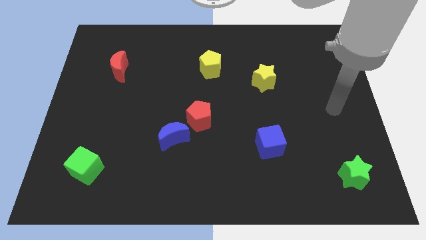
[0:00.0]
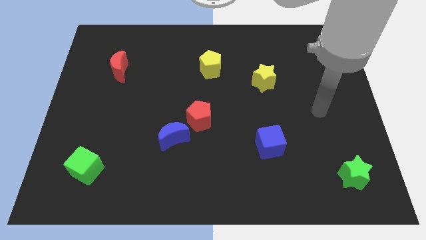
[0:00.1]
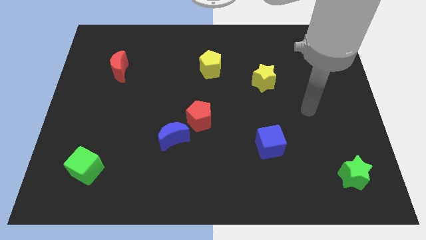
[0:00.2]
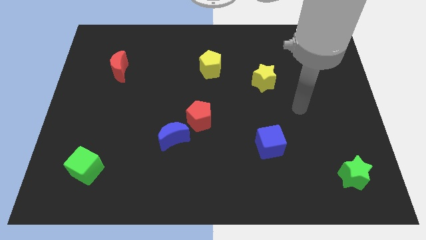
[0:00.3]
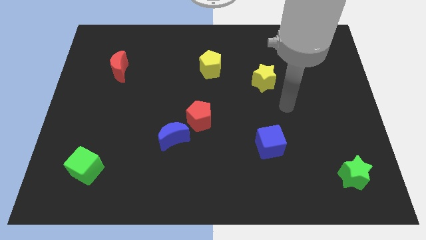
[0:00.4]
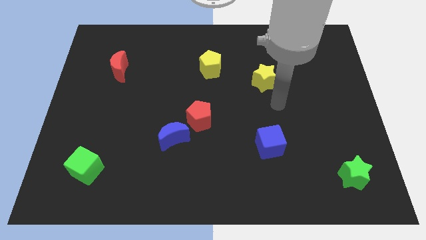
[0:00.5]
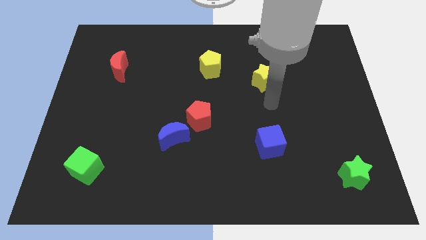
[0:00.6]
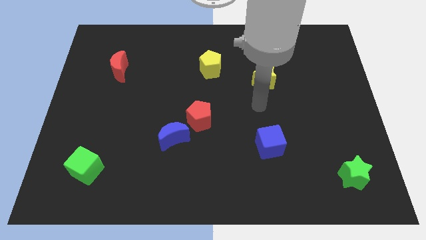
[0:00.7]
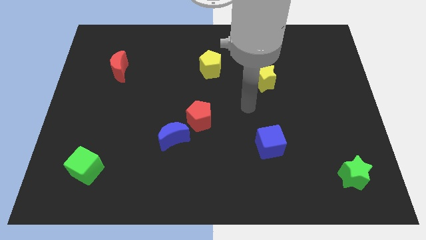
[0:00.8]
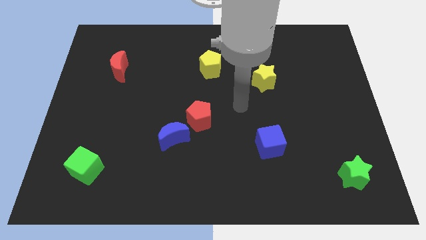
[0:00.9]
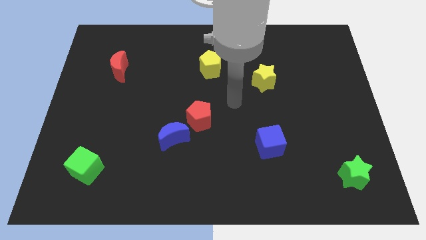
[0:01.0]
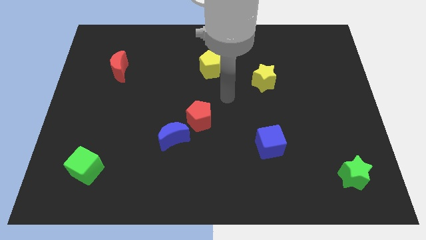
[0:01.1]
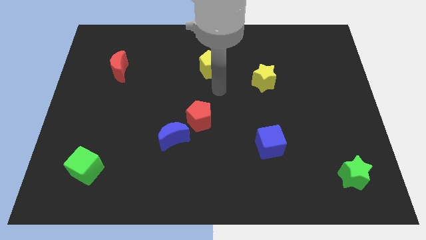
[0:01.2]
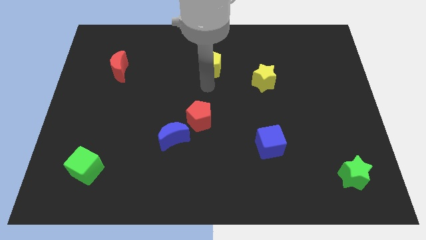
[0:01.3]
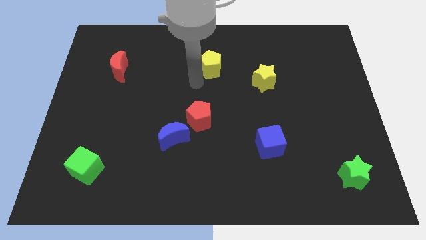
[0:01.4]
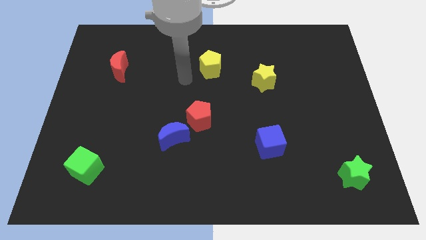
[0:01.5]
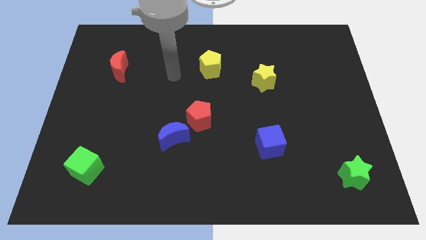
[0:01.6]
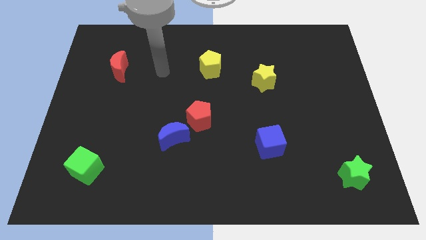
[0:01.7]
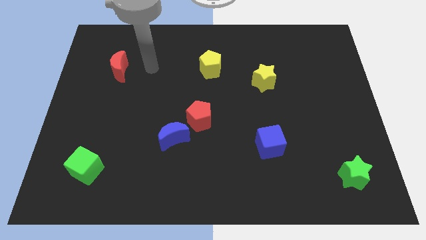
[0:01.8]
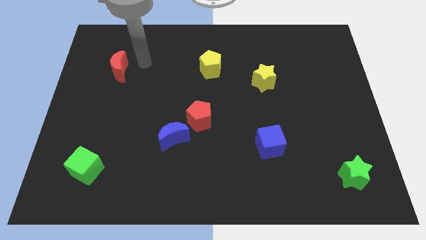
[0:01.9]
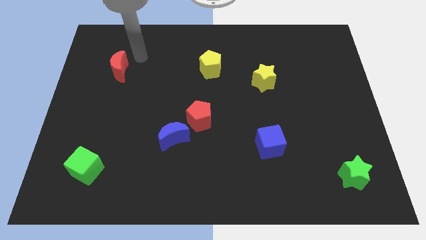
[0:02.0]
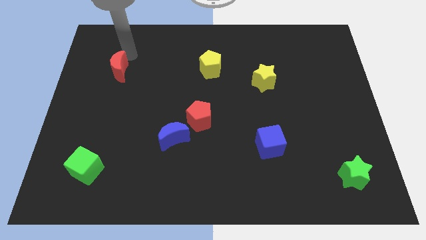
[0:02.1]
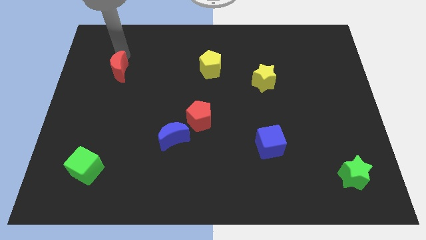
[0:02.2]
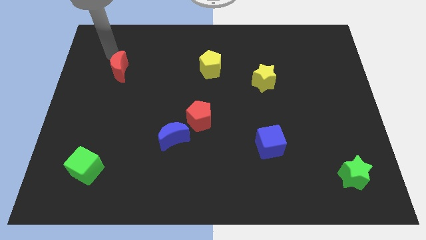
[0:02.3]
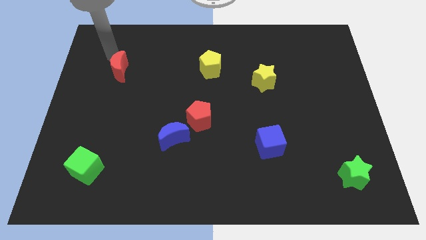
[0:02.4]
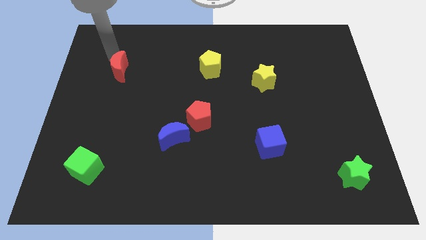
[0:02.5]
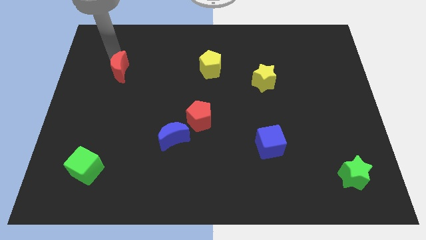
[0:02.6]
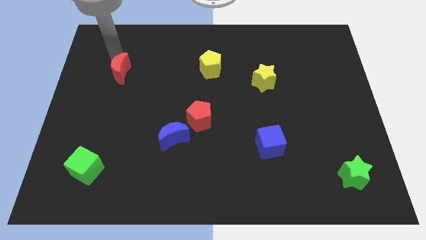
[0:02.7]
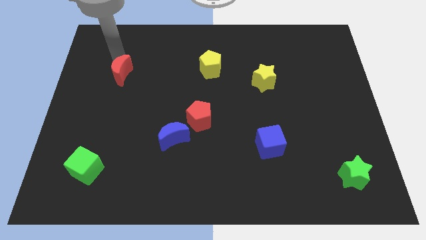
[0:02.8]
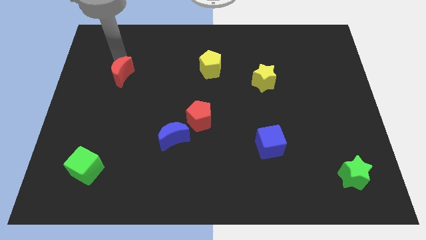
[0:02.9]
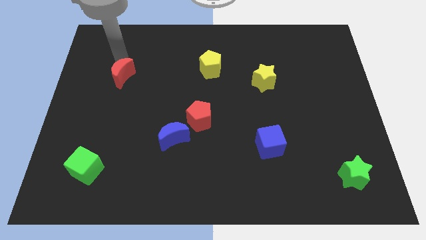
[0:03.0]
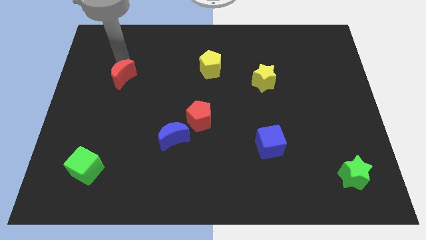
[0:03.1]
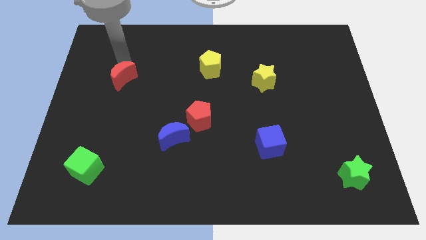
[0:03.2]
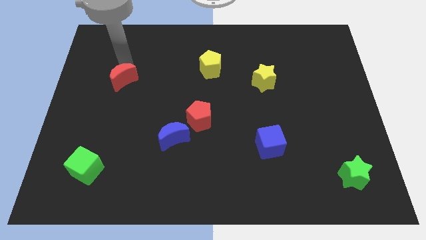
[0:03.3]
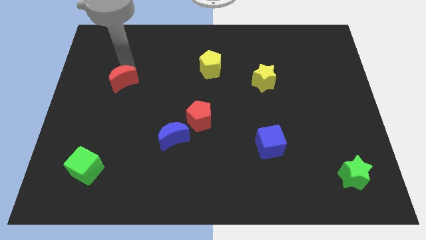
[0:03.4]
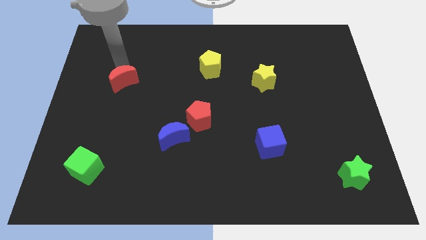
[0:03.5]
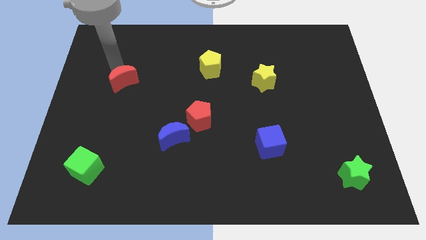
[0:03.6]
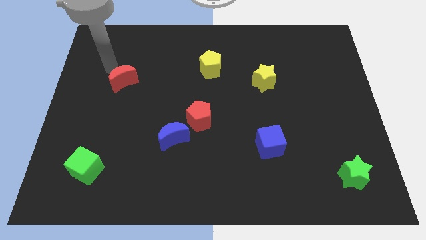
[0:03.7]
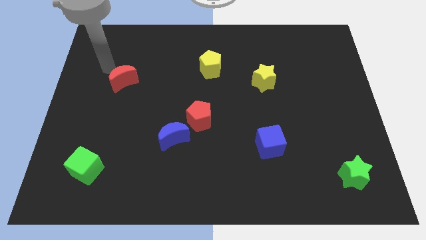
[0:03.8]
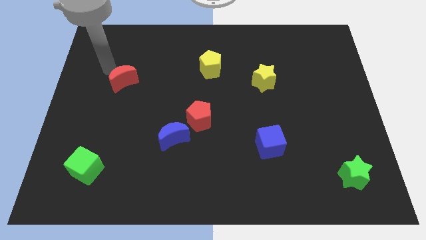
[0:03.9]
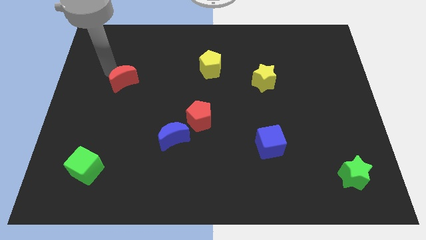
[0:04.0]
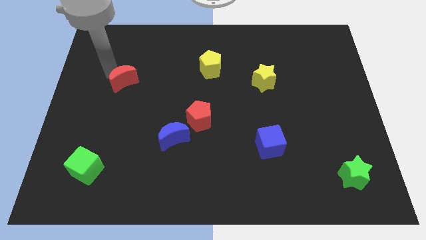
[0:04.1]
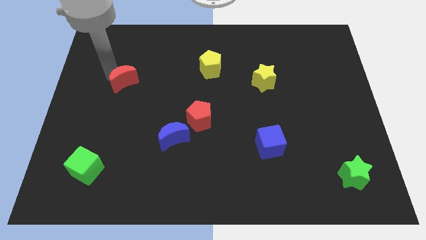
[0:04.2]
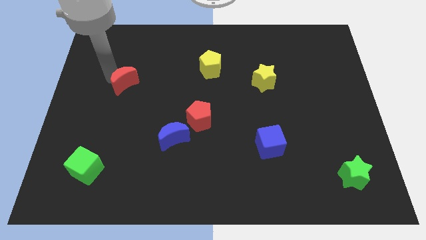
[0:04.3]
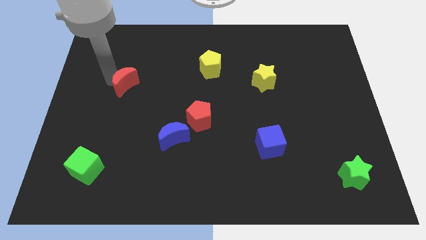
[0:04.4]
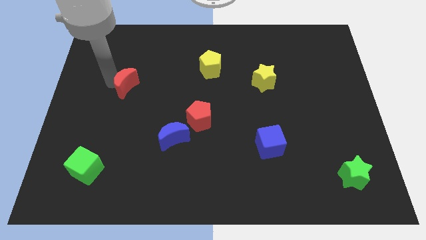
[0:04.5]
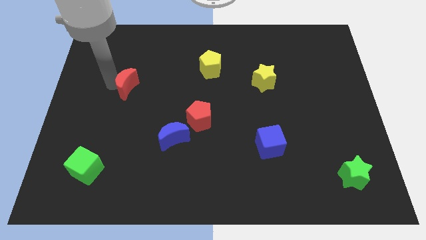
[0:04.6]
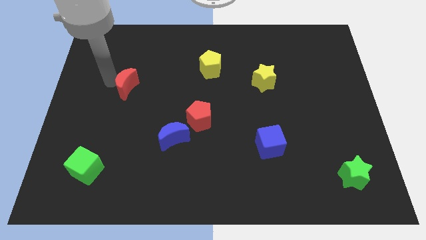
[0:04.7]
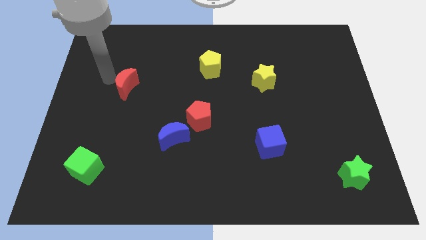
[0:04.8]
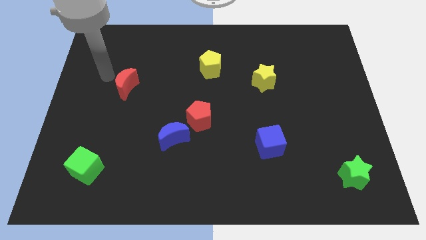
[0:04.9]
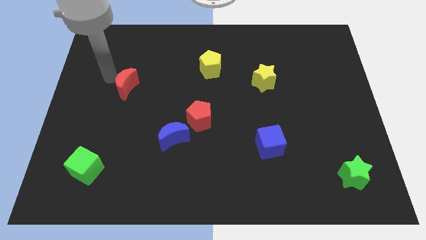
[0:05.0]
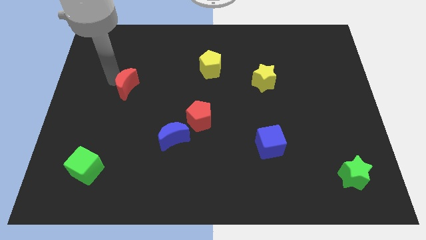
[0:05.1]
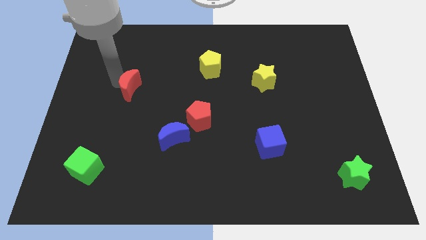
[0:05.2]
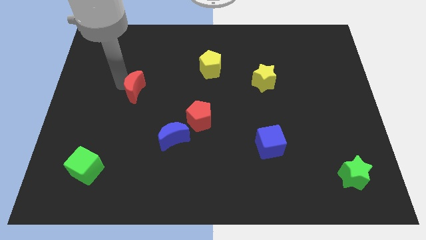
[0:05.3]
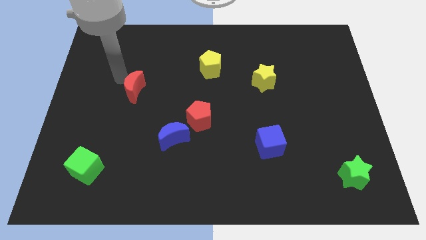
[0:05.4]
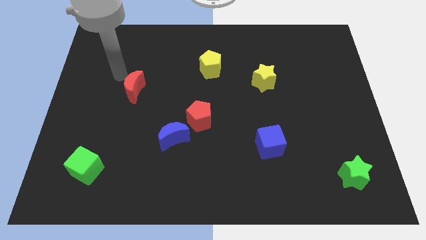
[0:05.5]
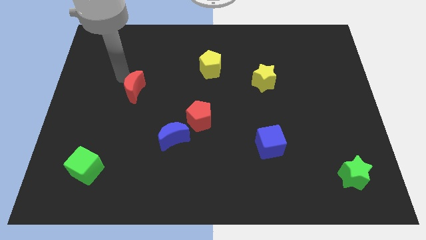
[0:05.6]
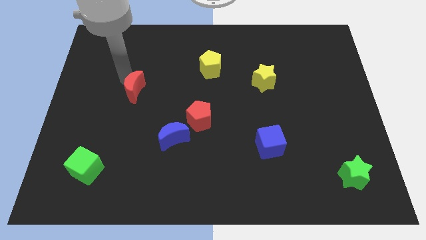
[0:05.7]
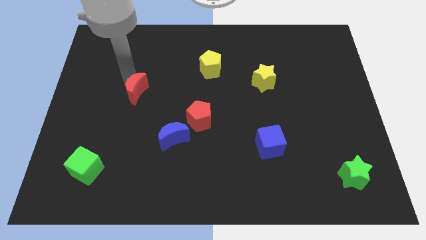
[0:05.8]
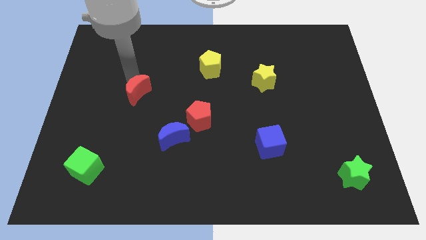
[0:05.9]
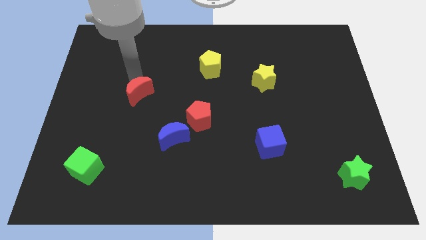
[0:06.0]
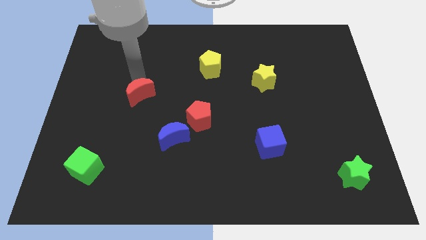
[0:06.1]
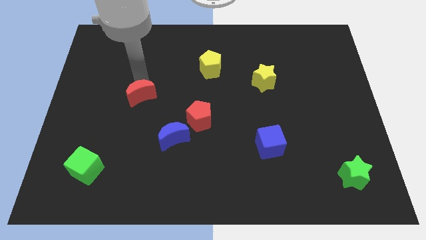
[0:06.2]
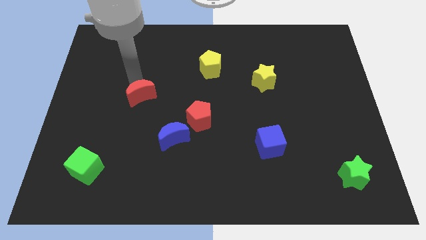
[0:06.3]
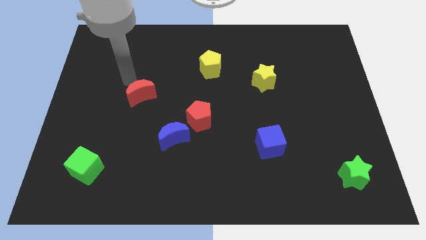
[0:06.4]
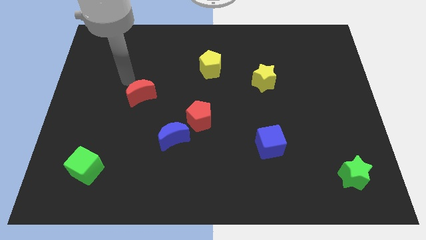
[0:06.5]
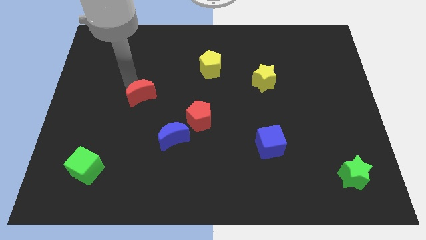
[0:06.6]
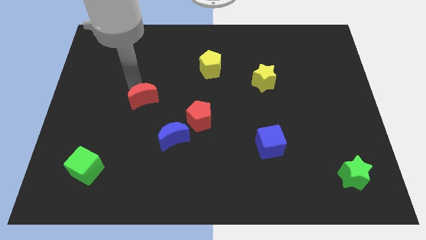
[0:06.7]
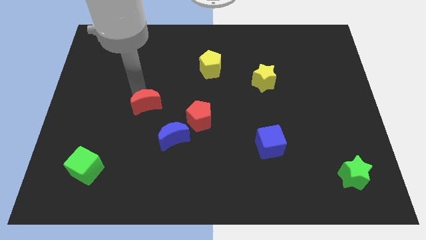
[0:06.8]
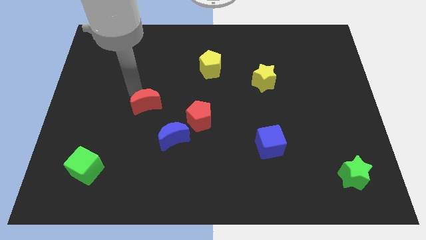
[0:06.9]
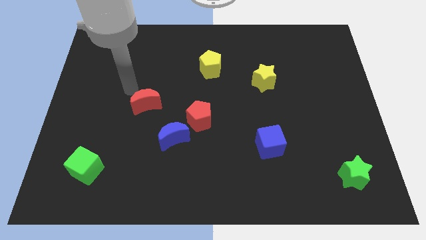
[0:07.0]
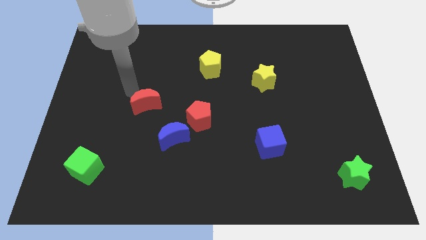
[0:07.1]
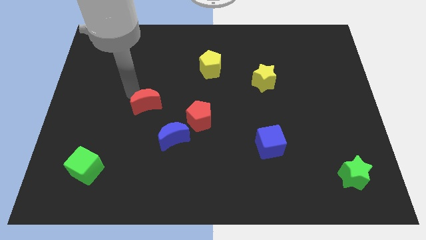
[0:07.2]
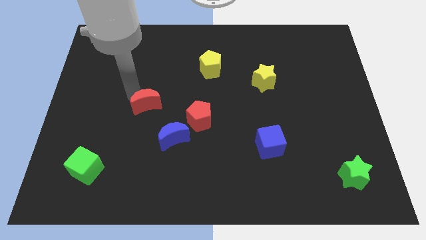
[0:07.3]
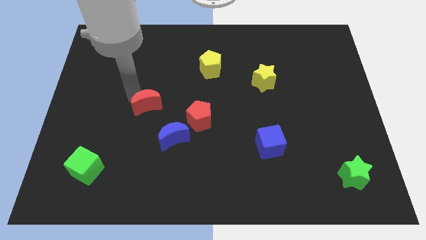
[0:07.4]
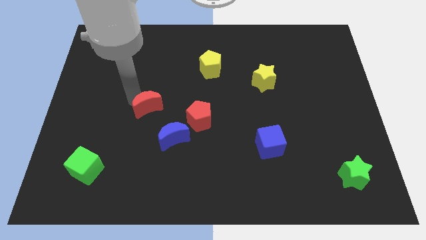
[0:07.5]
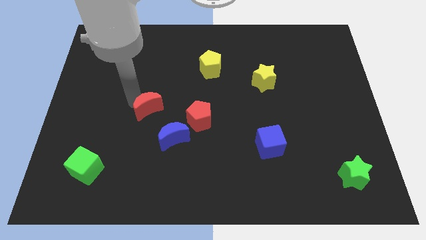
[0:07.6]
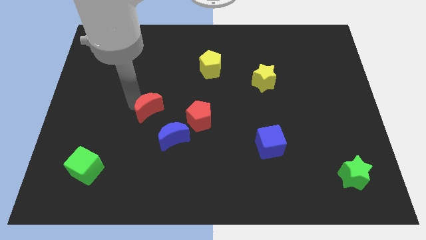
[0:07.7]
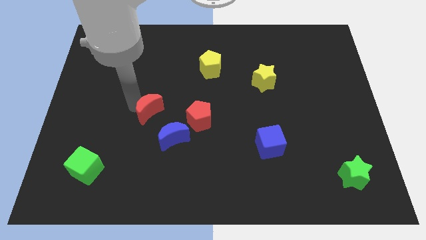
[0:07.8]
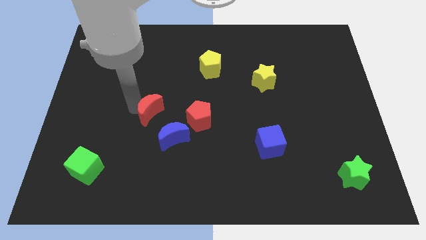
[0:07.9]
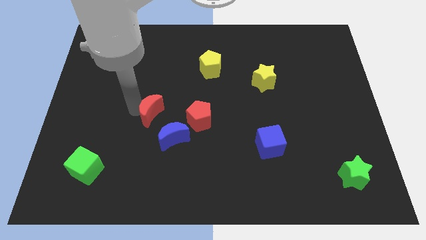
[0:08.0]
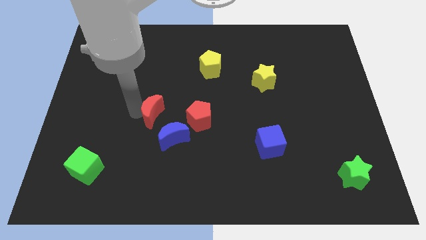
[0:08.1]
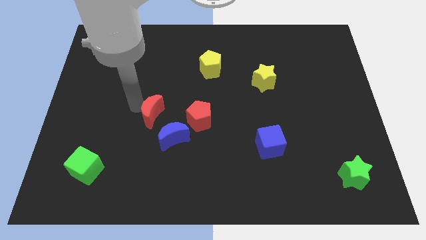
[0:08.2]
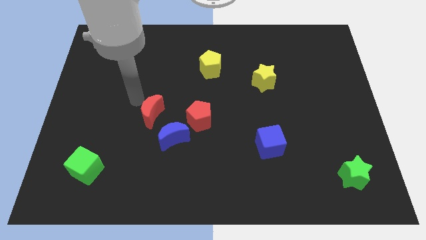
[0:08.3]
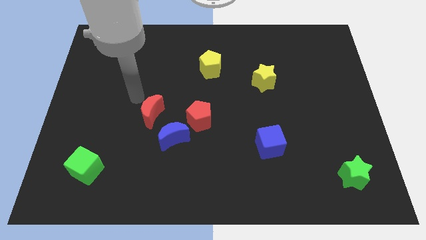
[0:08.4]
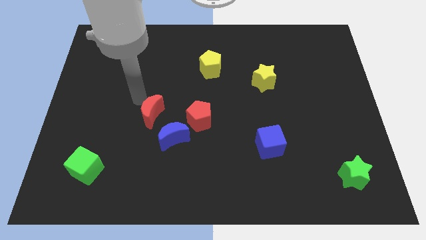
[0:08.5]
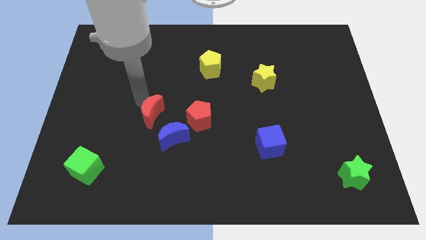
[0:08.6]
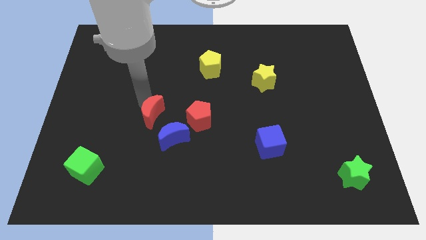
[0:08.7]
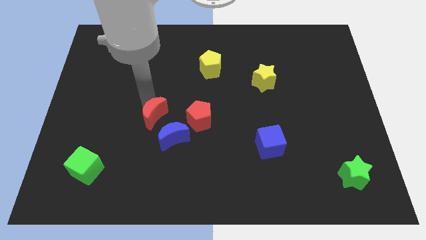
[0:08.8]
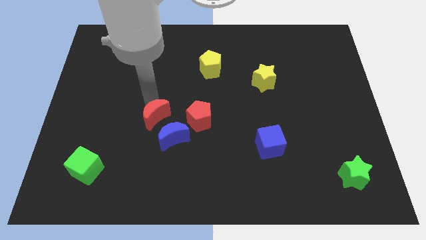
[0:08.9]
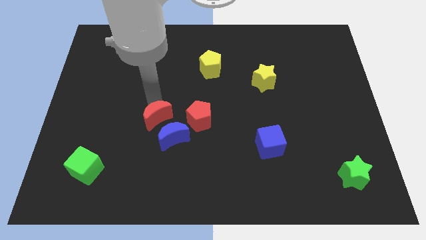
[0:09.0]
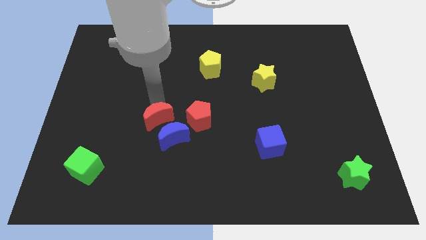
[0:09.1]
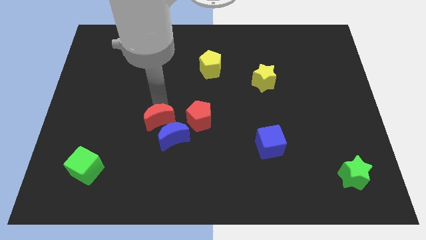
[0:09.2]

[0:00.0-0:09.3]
move the red moon next to the blue moon
